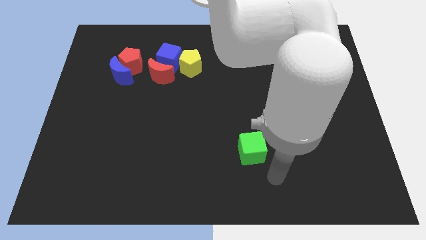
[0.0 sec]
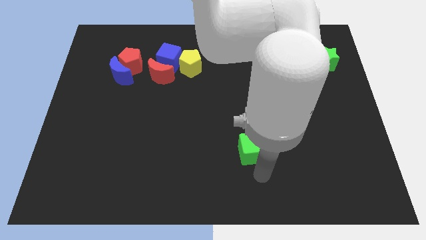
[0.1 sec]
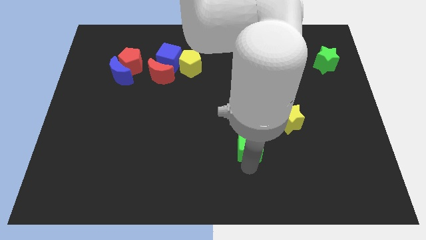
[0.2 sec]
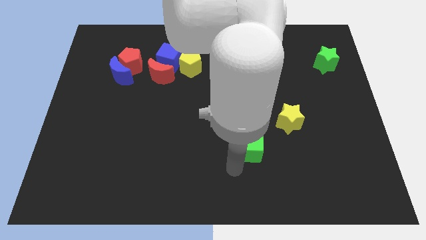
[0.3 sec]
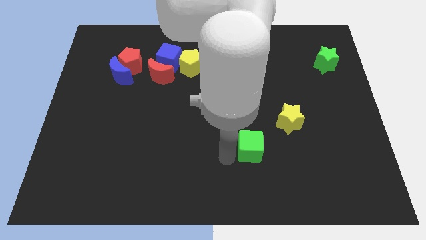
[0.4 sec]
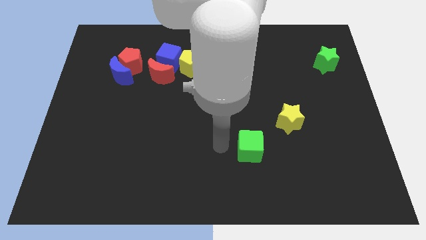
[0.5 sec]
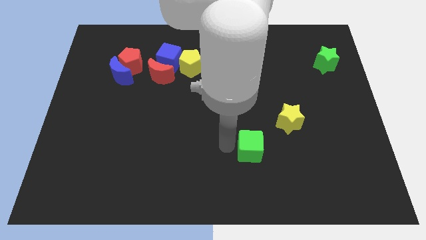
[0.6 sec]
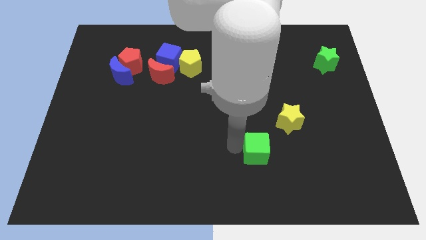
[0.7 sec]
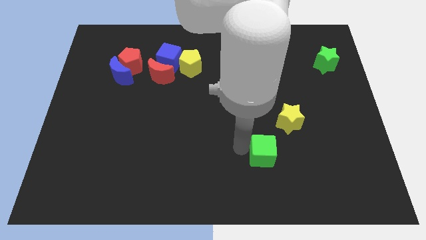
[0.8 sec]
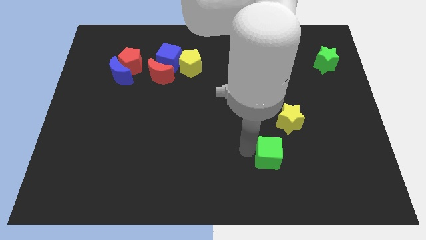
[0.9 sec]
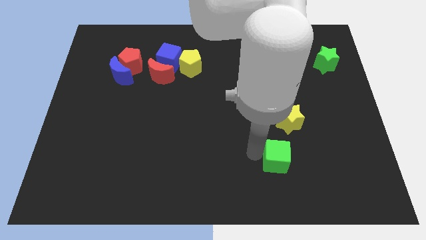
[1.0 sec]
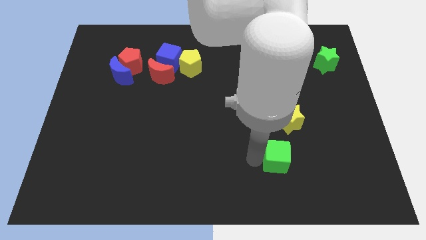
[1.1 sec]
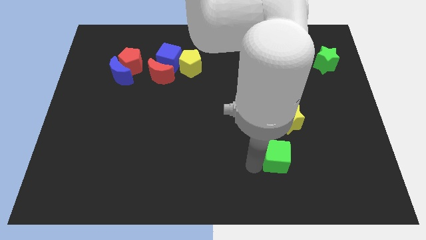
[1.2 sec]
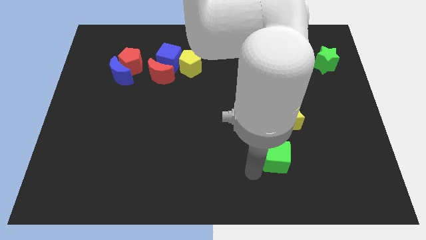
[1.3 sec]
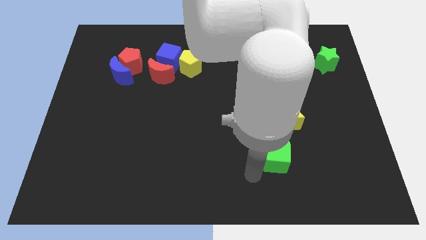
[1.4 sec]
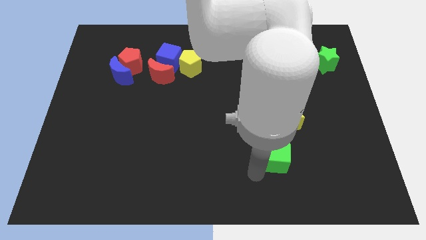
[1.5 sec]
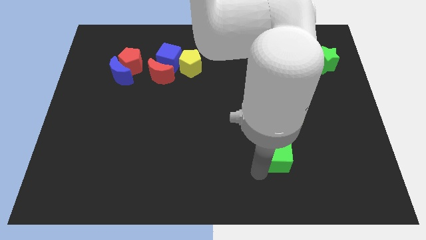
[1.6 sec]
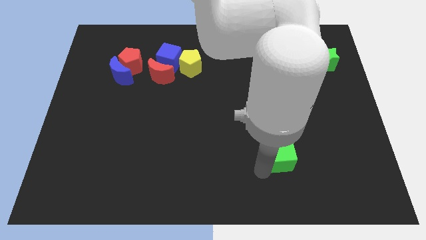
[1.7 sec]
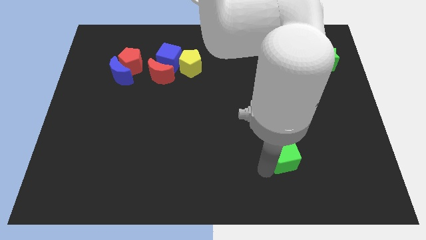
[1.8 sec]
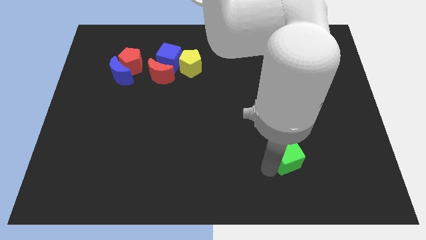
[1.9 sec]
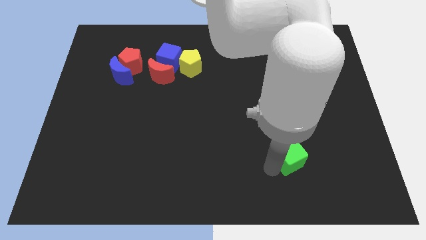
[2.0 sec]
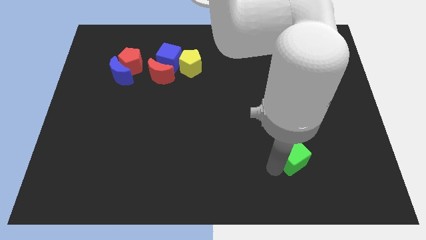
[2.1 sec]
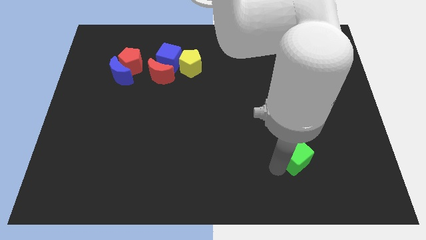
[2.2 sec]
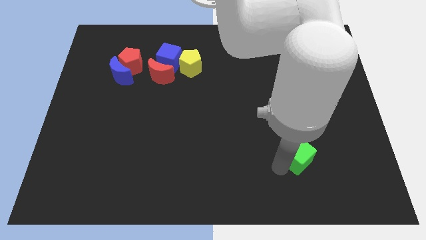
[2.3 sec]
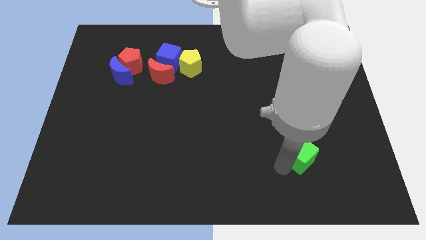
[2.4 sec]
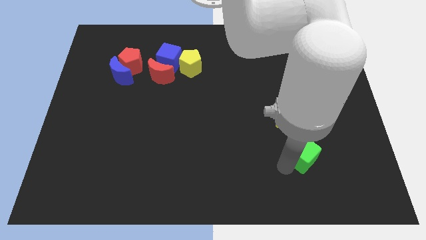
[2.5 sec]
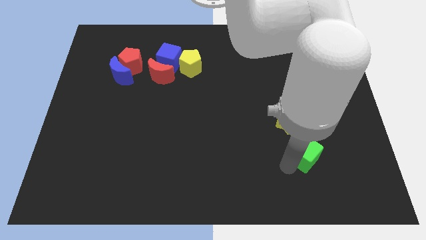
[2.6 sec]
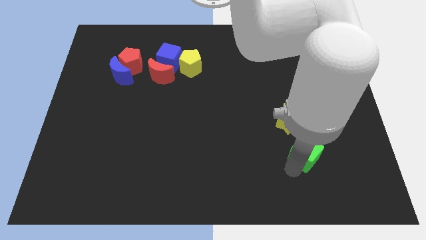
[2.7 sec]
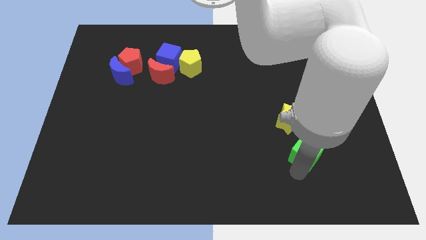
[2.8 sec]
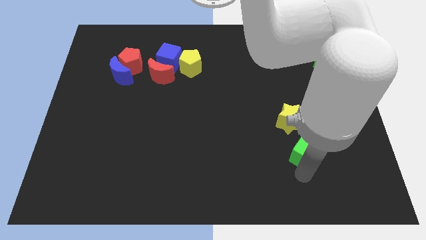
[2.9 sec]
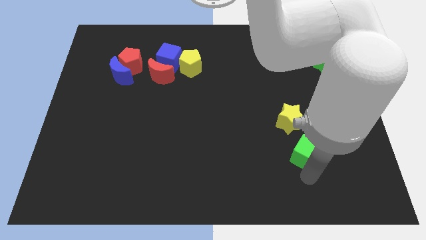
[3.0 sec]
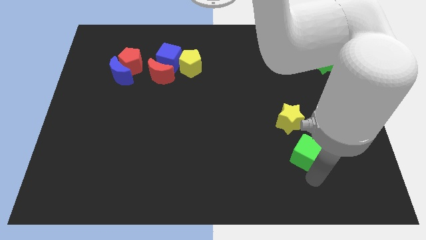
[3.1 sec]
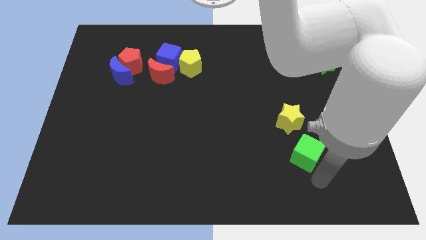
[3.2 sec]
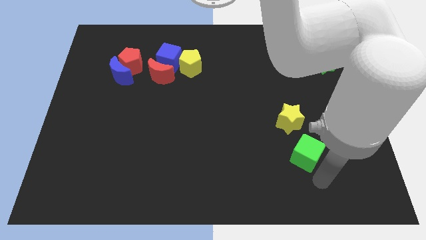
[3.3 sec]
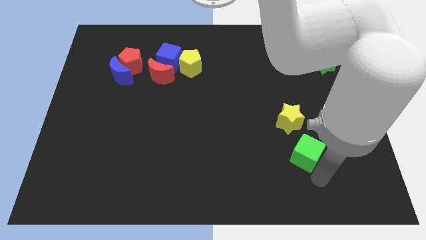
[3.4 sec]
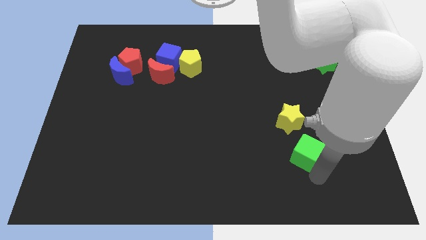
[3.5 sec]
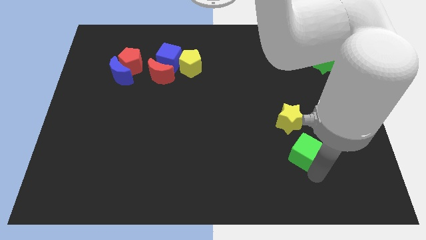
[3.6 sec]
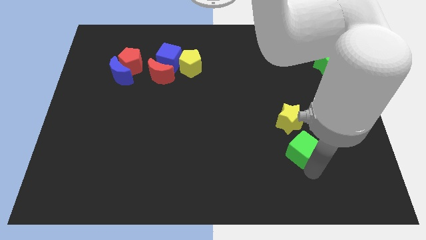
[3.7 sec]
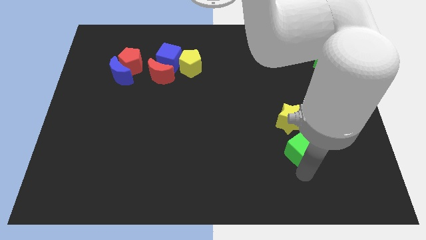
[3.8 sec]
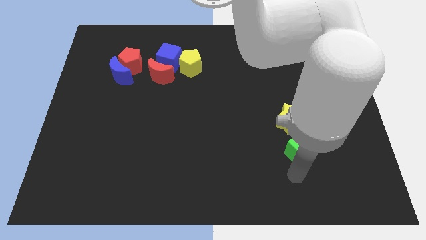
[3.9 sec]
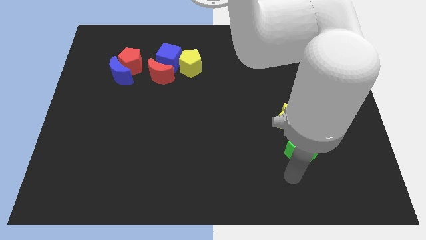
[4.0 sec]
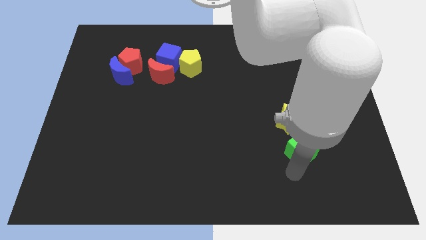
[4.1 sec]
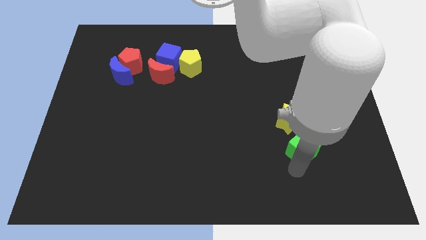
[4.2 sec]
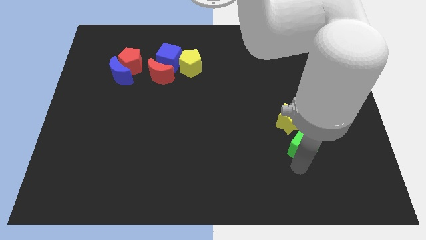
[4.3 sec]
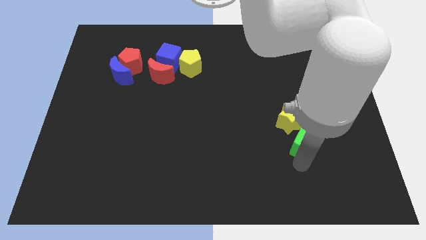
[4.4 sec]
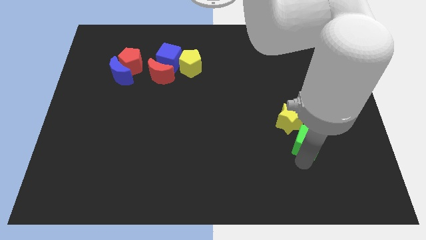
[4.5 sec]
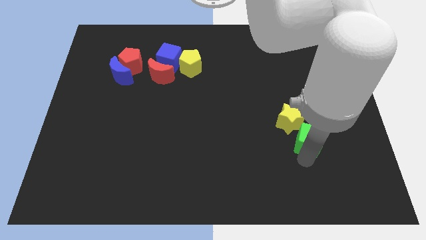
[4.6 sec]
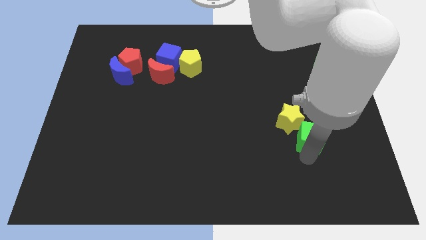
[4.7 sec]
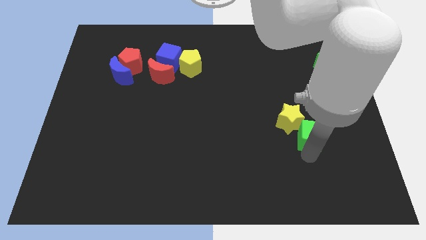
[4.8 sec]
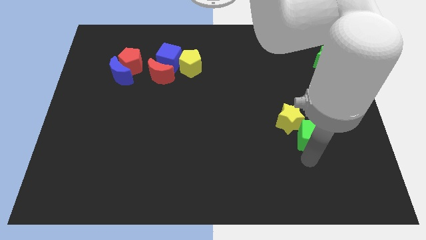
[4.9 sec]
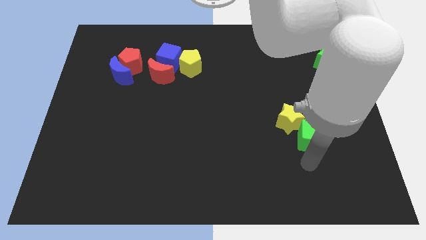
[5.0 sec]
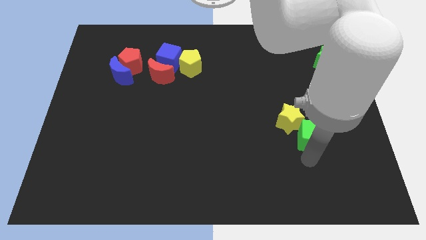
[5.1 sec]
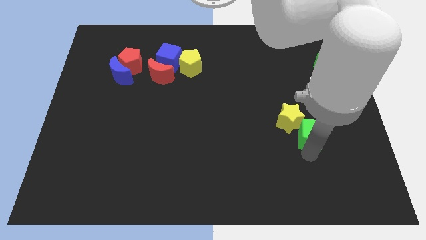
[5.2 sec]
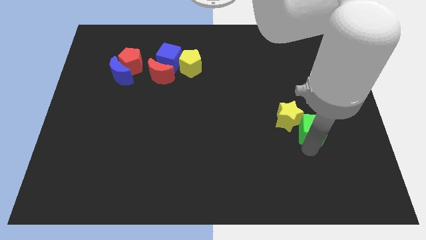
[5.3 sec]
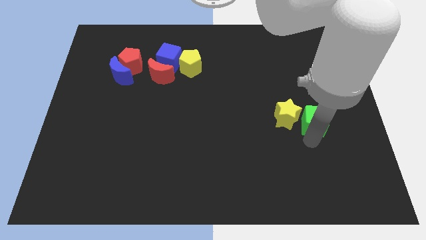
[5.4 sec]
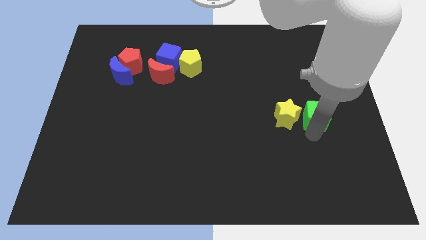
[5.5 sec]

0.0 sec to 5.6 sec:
slide the green cube to the top right of the yellow star

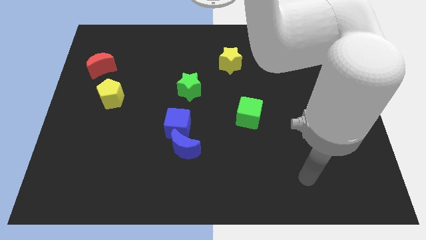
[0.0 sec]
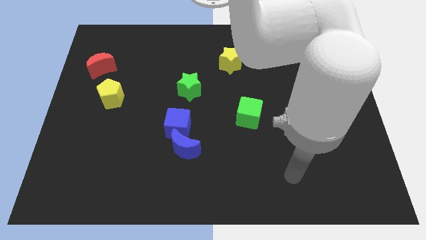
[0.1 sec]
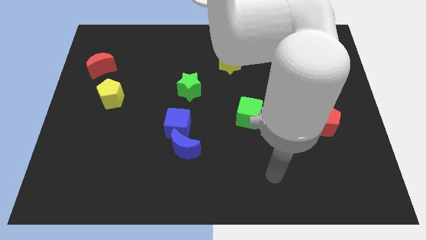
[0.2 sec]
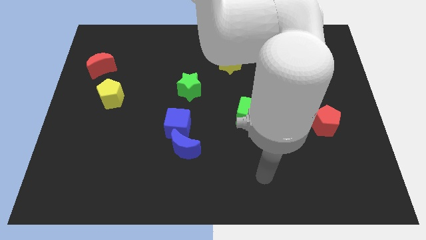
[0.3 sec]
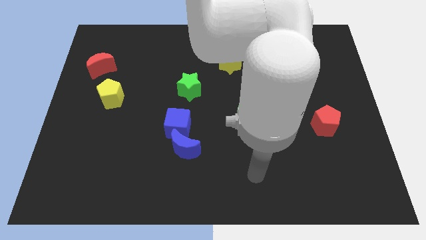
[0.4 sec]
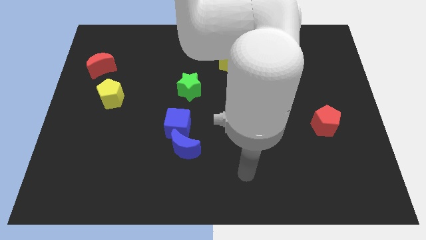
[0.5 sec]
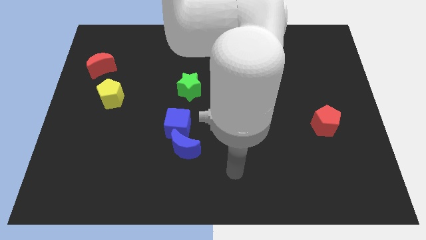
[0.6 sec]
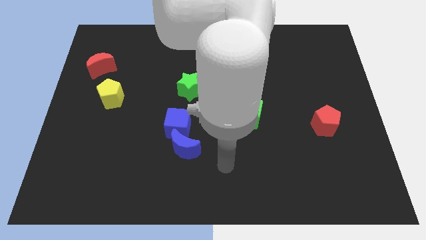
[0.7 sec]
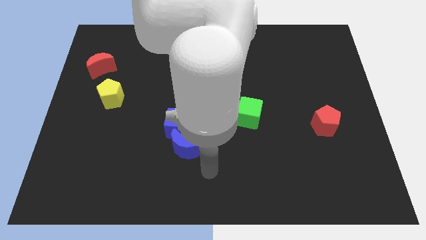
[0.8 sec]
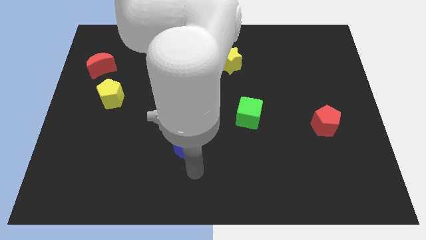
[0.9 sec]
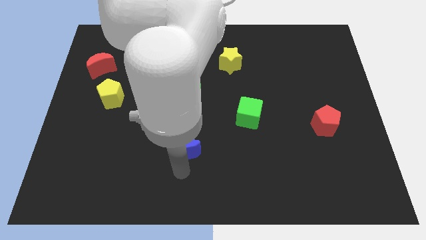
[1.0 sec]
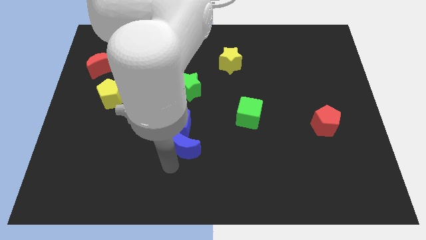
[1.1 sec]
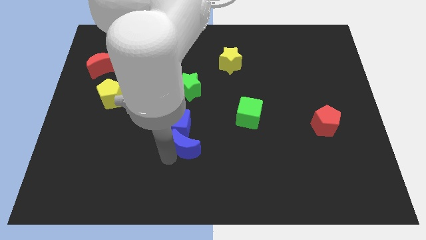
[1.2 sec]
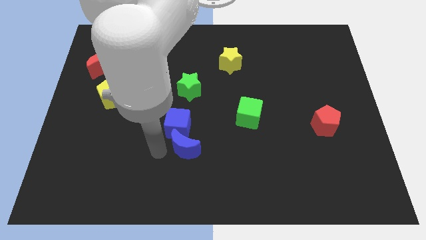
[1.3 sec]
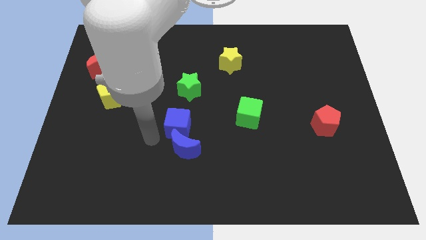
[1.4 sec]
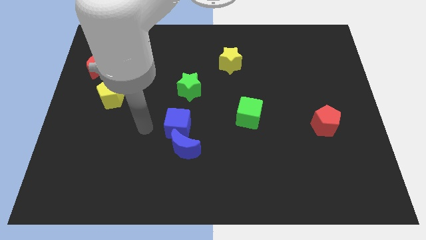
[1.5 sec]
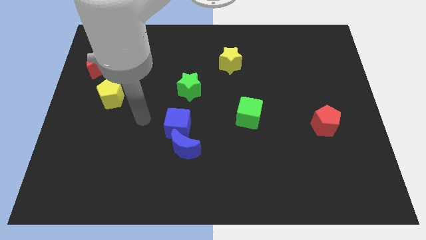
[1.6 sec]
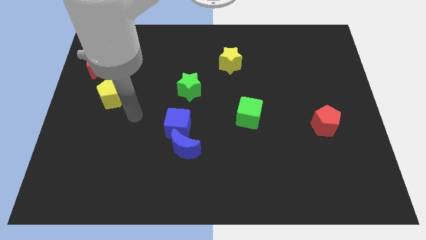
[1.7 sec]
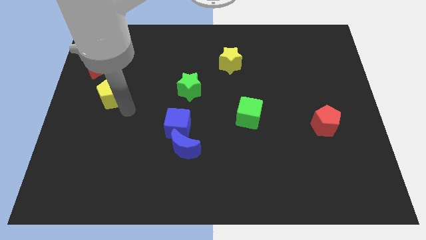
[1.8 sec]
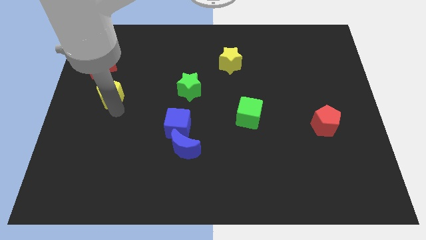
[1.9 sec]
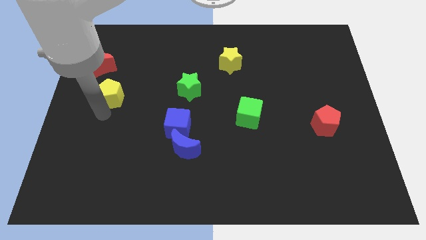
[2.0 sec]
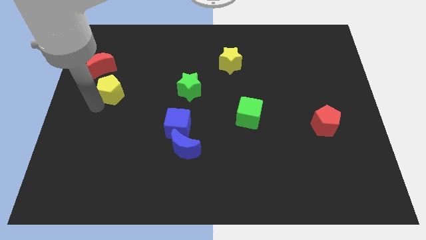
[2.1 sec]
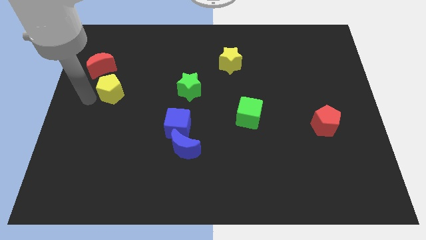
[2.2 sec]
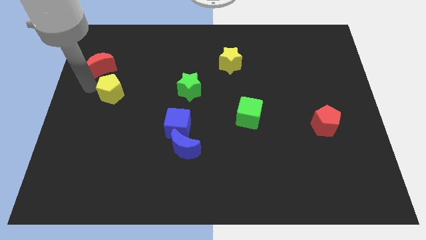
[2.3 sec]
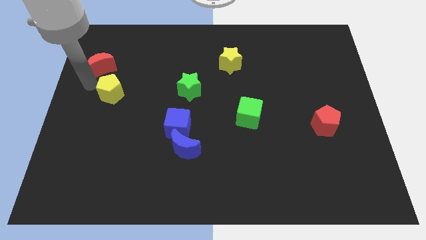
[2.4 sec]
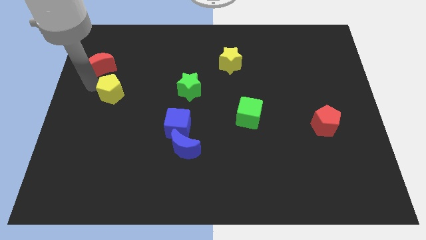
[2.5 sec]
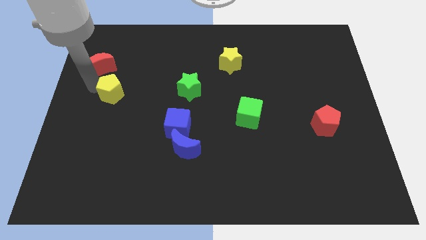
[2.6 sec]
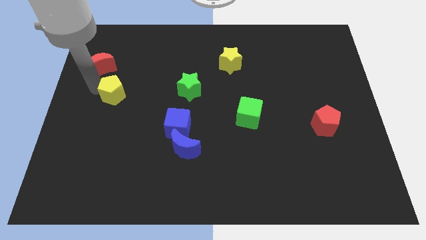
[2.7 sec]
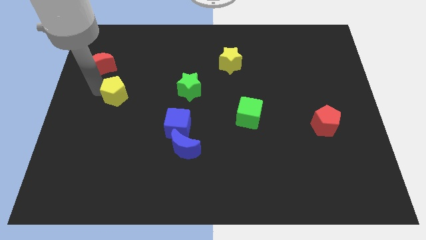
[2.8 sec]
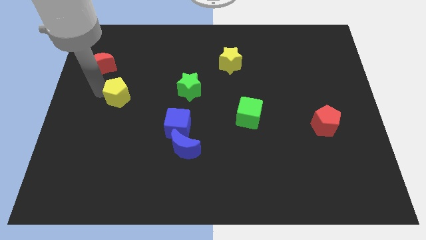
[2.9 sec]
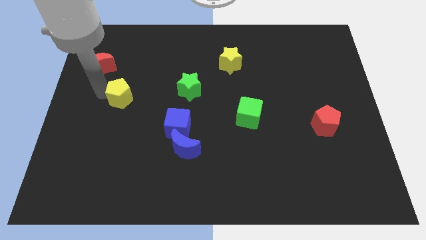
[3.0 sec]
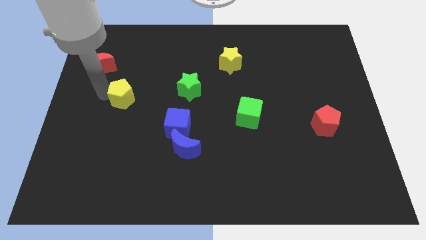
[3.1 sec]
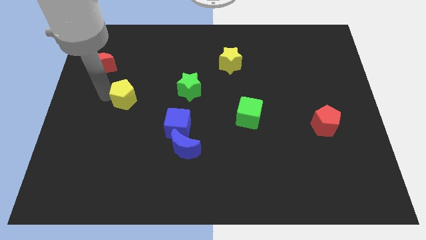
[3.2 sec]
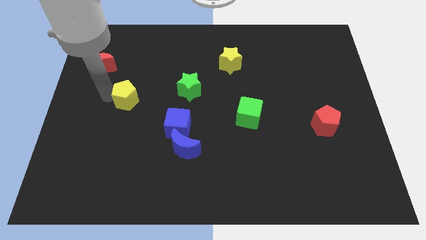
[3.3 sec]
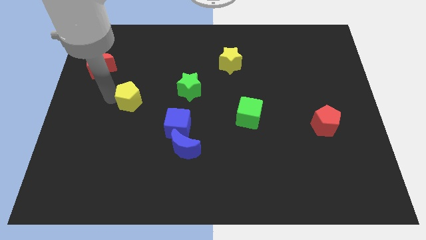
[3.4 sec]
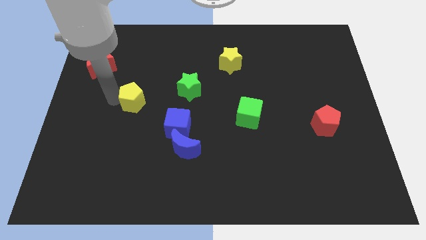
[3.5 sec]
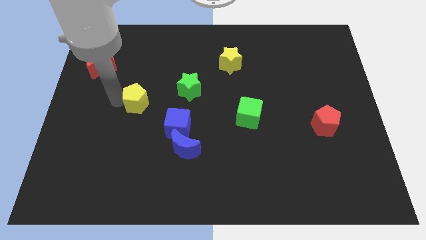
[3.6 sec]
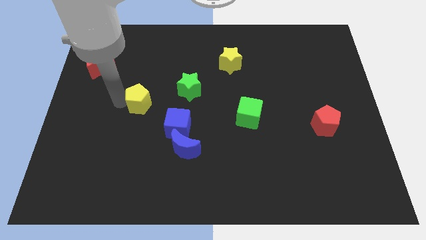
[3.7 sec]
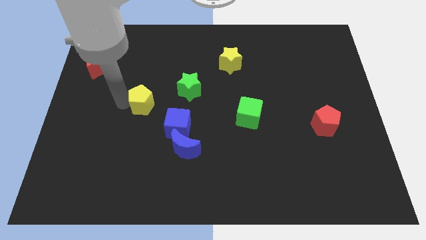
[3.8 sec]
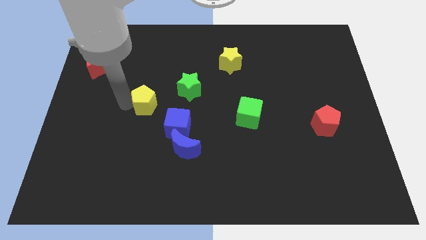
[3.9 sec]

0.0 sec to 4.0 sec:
push the yellow pentagon to the bottom left side of the green star
